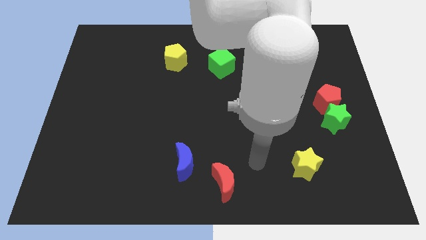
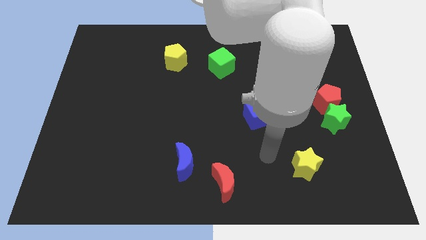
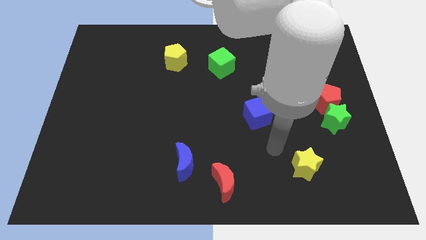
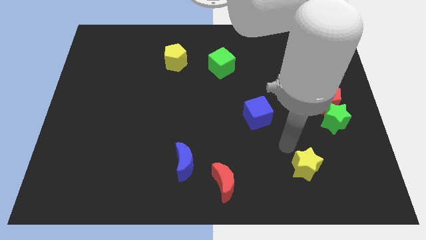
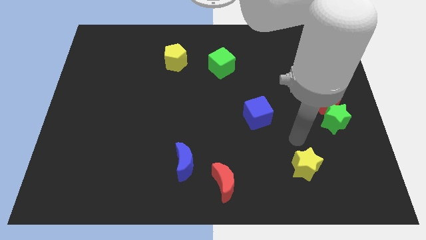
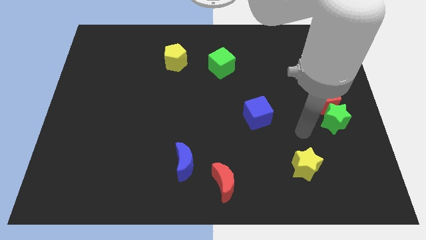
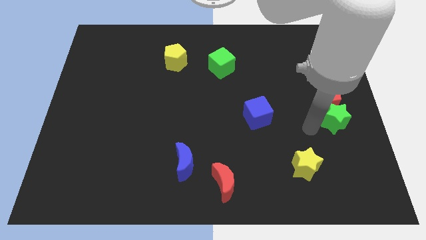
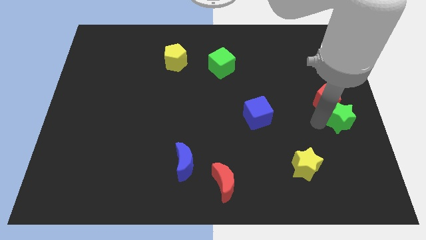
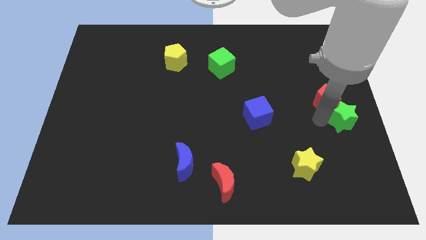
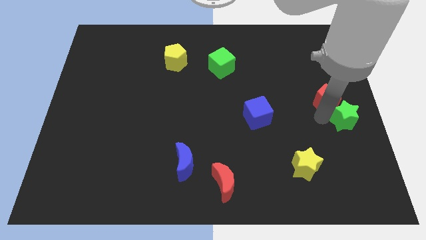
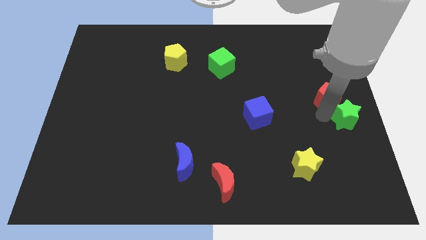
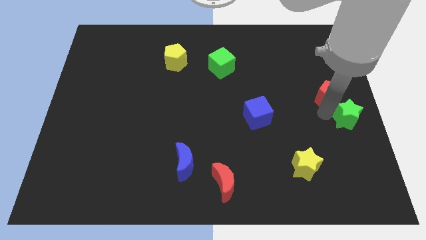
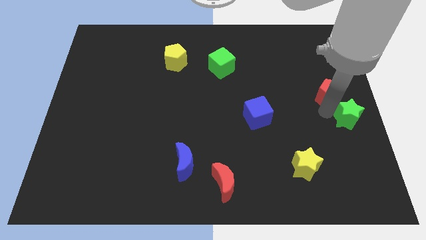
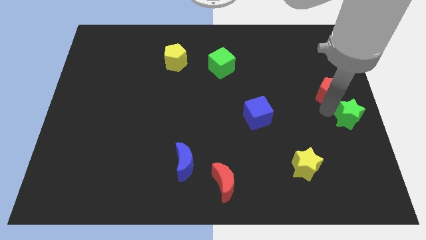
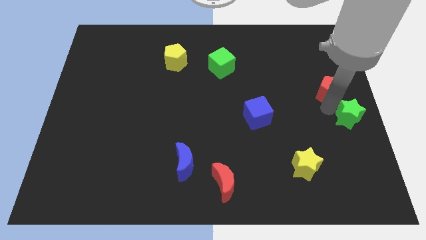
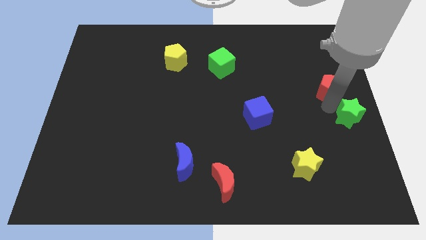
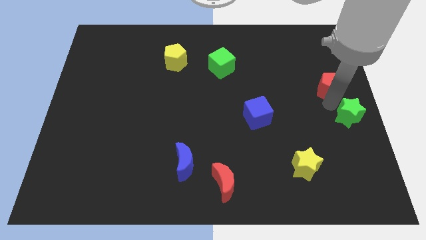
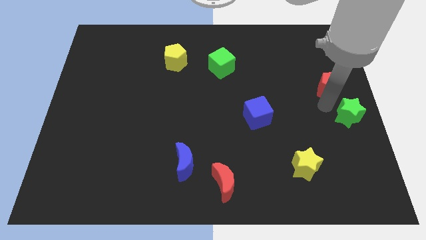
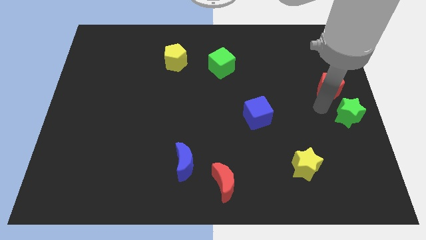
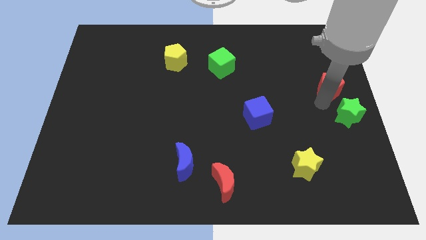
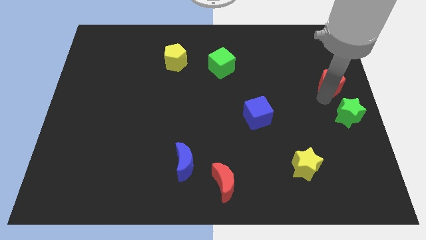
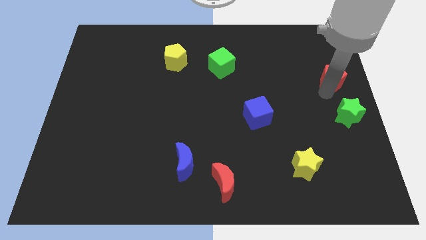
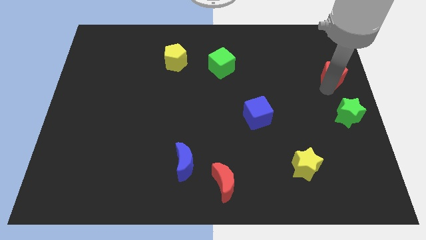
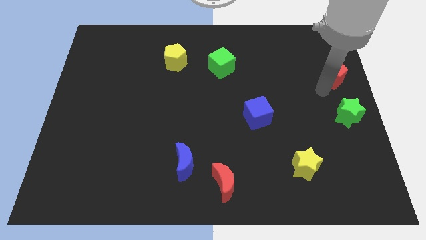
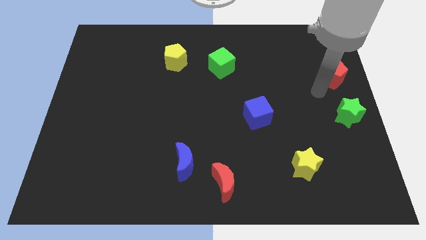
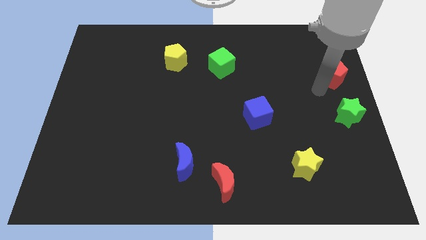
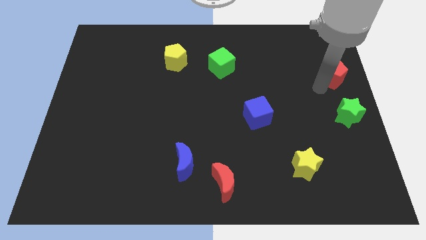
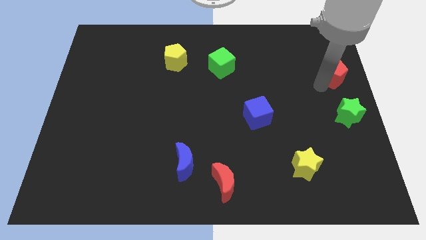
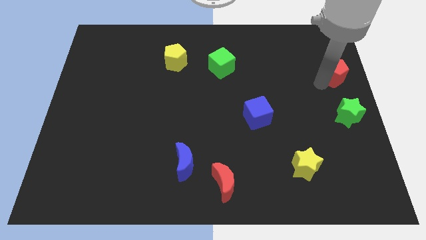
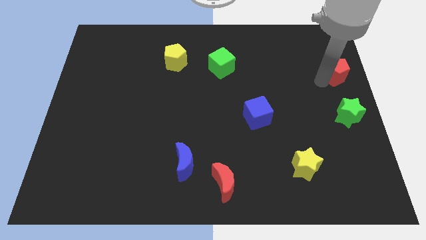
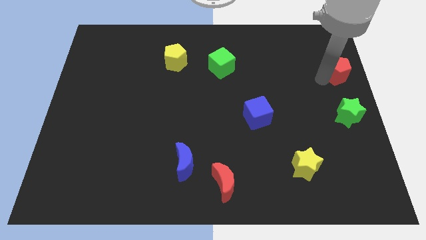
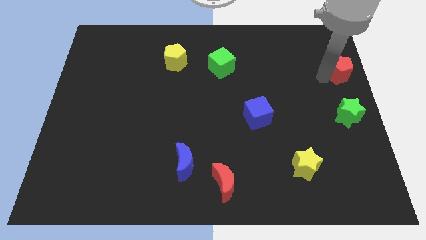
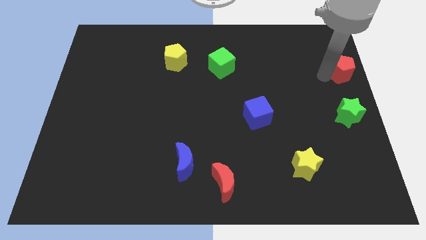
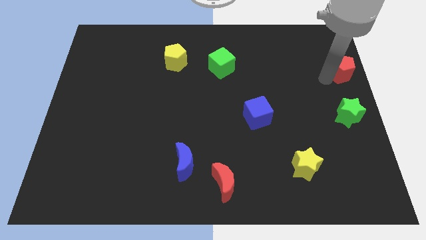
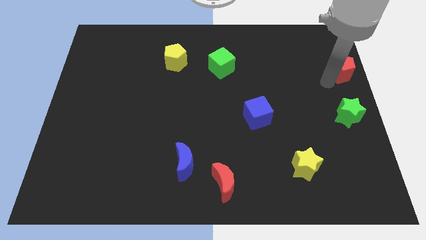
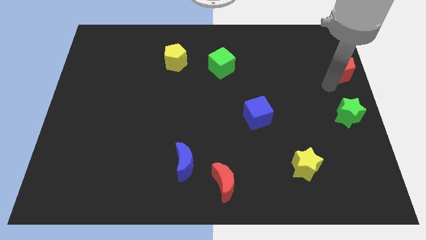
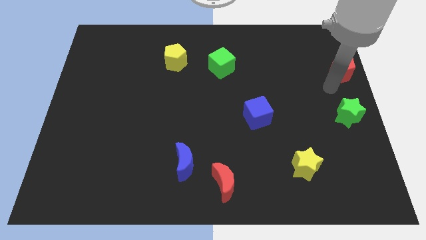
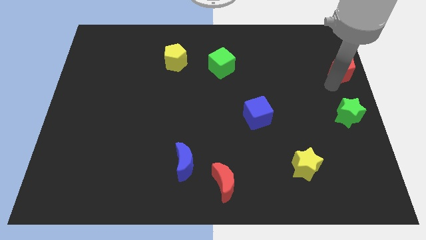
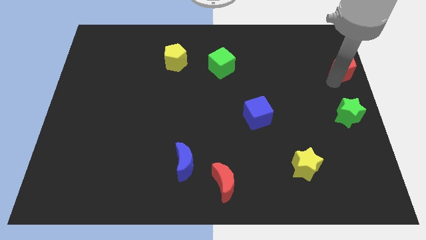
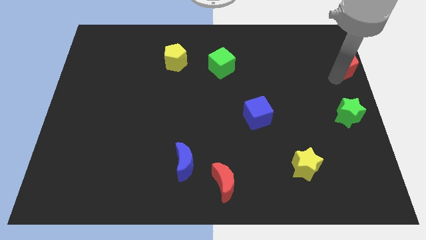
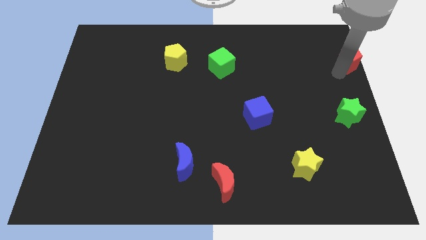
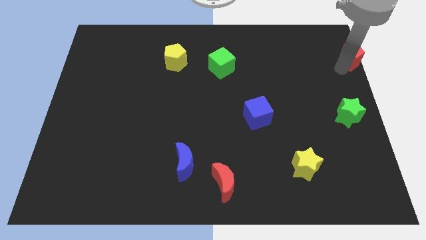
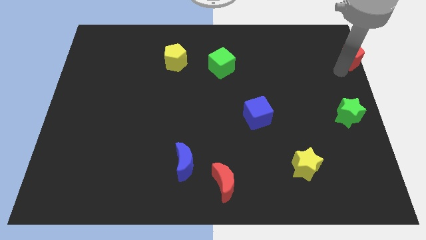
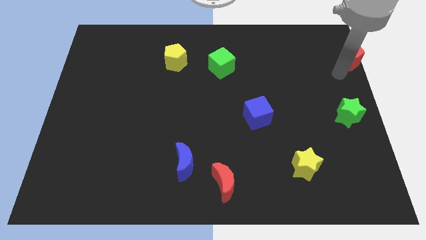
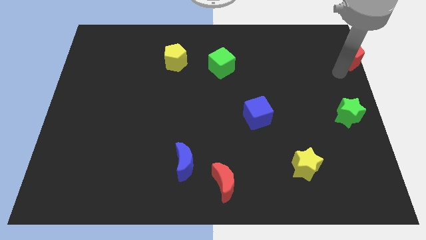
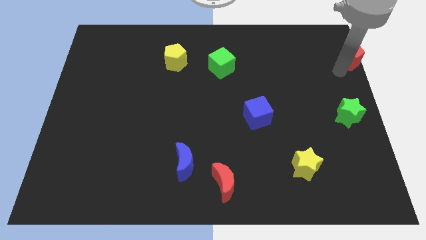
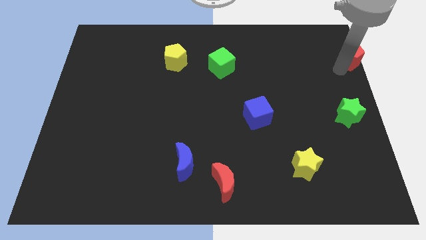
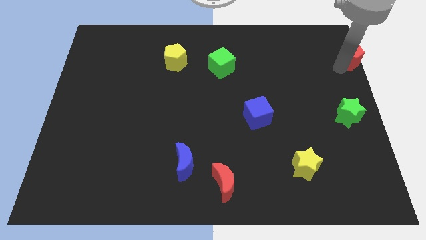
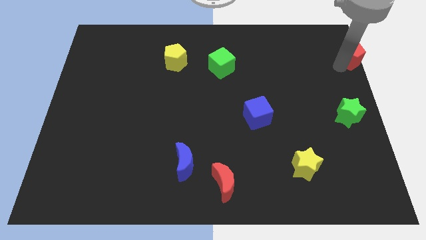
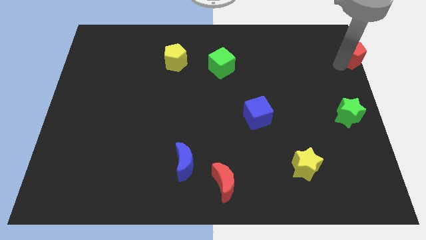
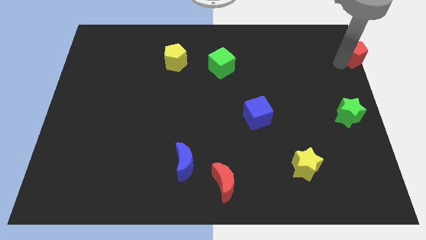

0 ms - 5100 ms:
slide the red pentagon to the upper right corner

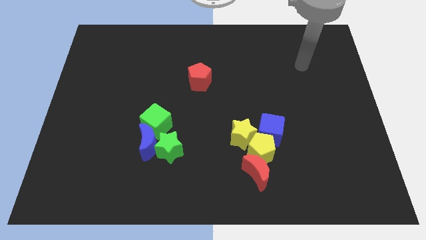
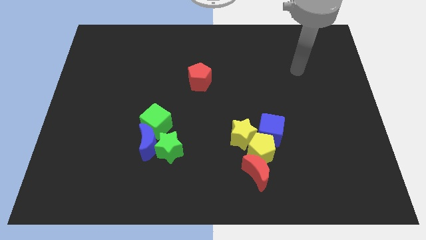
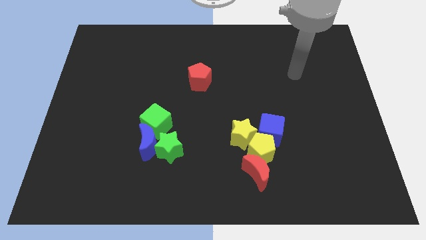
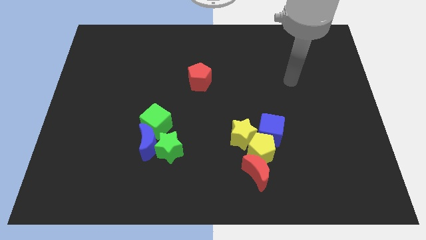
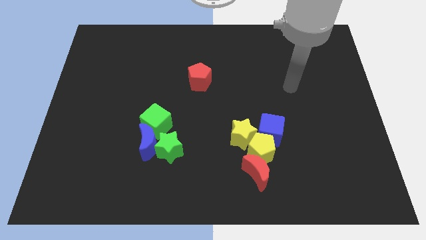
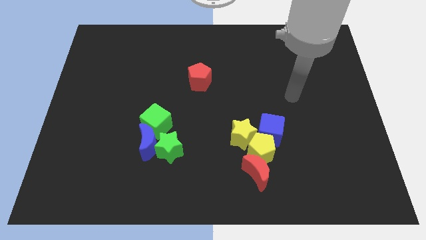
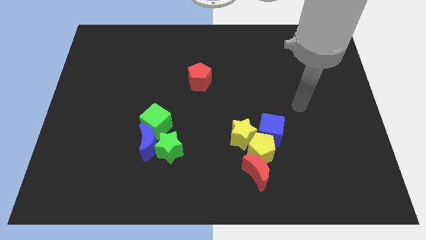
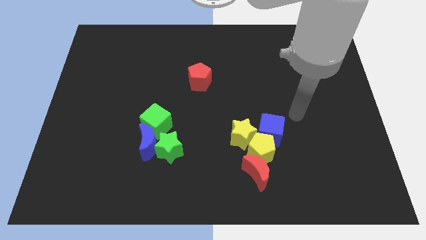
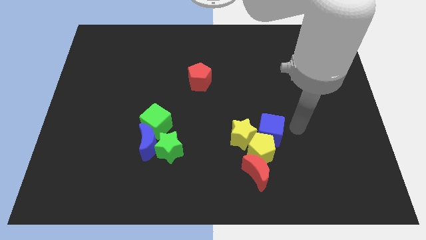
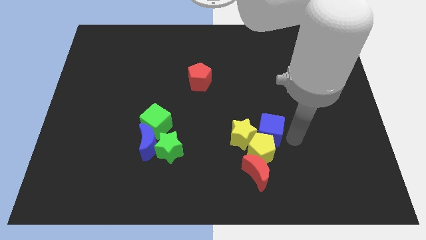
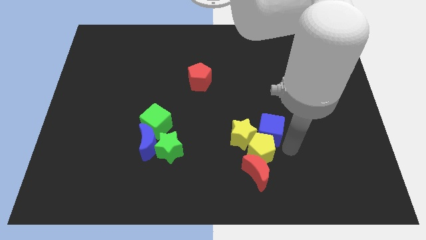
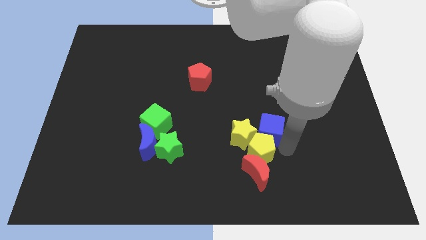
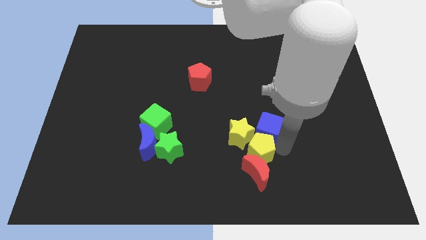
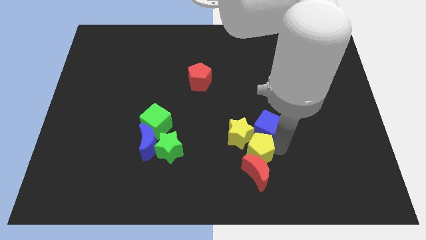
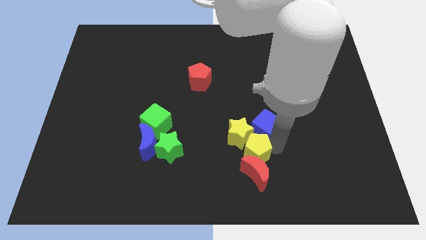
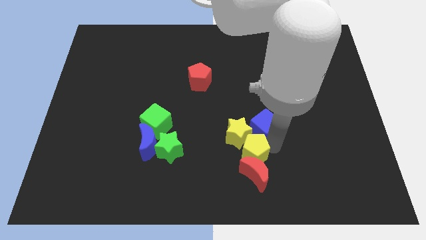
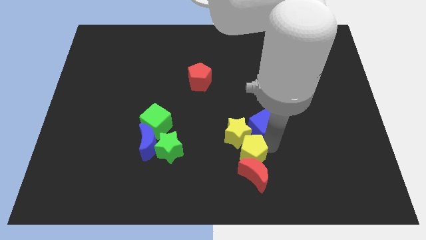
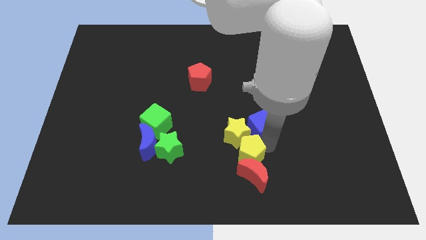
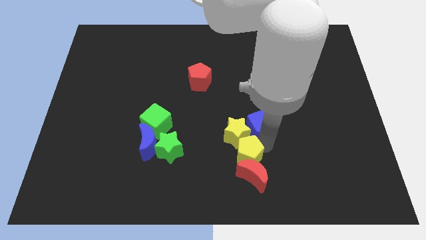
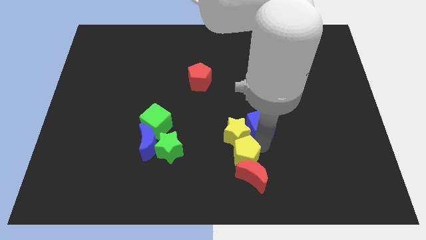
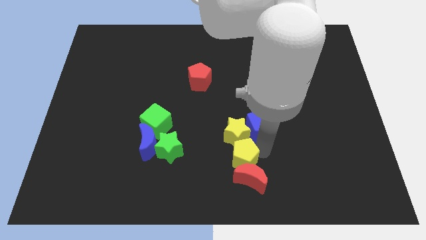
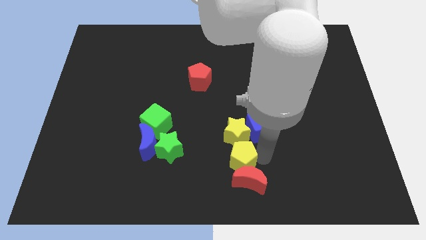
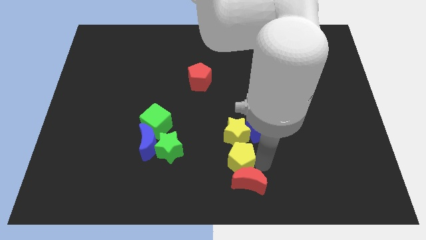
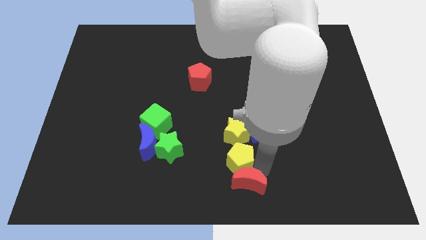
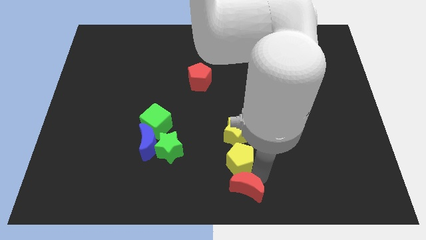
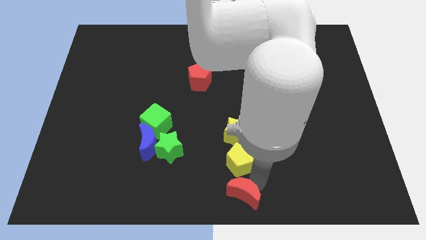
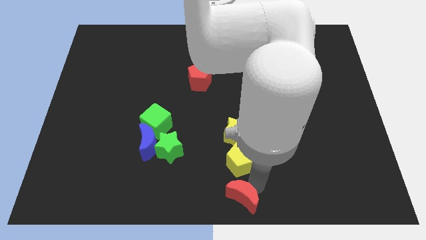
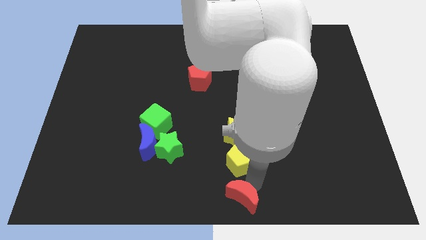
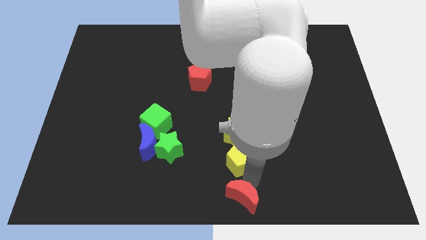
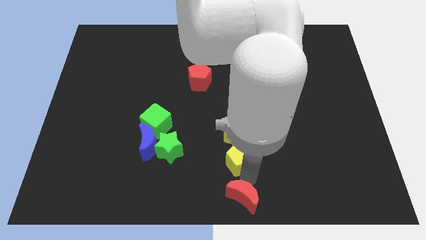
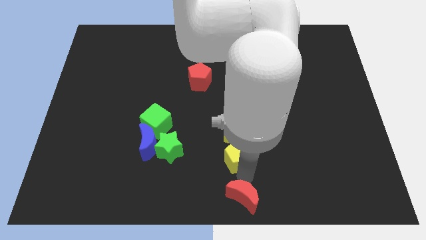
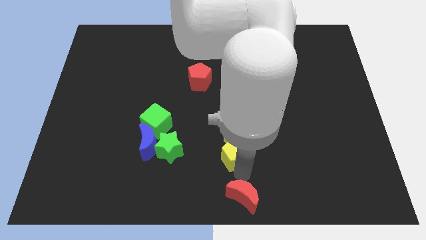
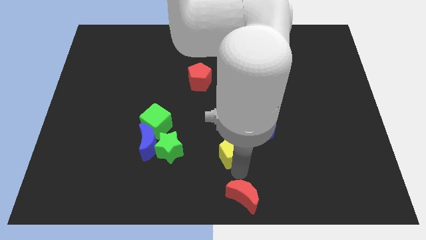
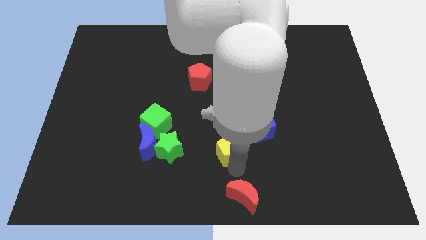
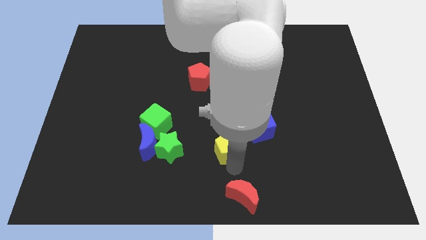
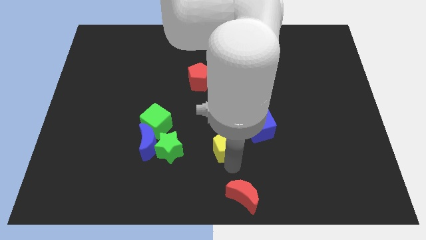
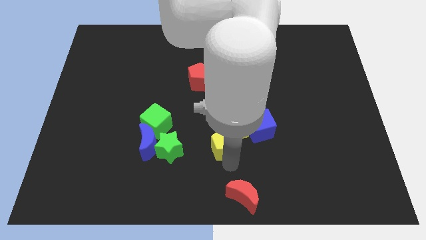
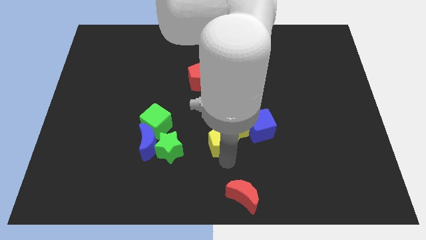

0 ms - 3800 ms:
slide the yellow pentagon to the middle of the board
